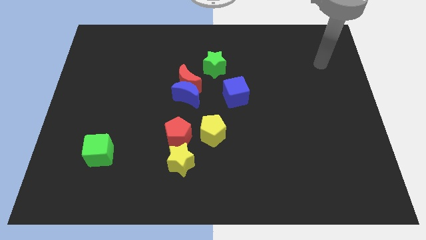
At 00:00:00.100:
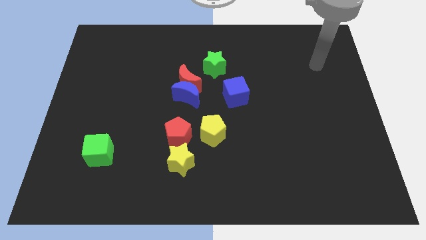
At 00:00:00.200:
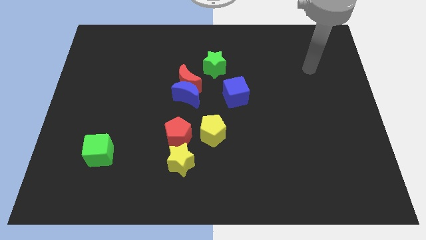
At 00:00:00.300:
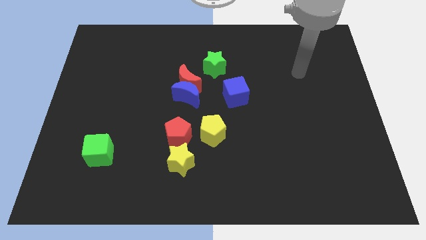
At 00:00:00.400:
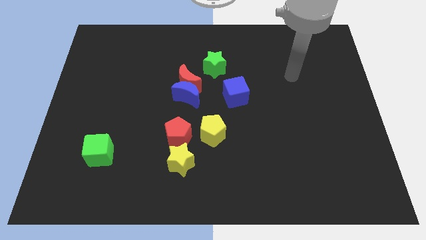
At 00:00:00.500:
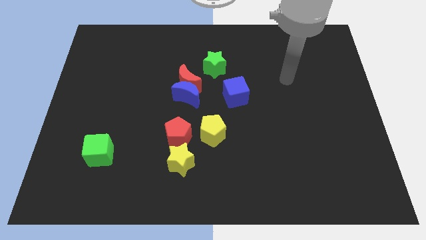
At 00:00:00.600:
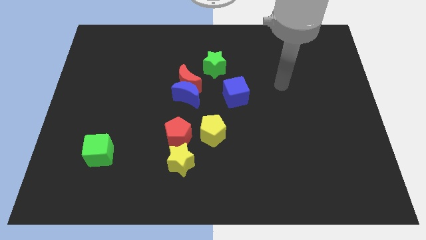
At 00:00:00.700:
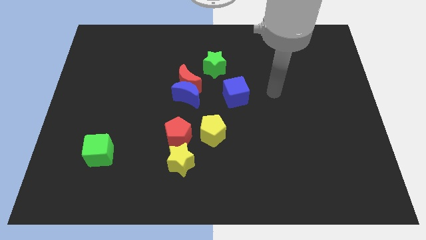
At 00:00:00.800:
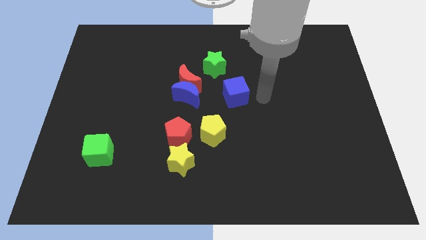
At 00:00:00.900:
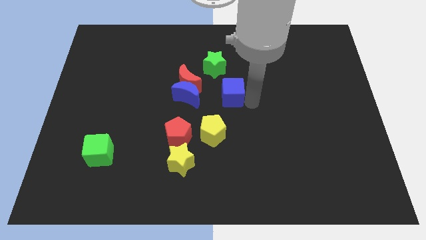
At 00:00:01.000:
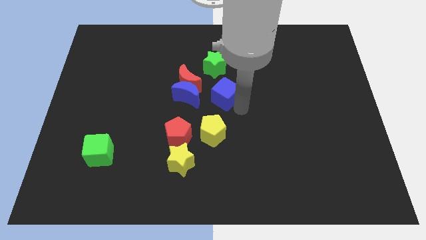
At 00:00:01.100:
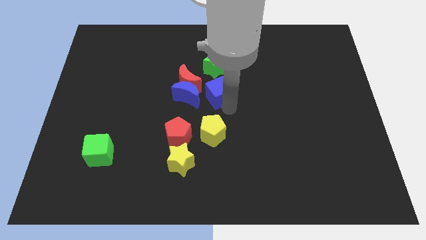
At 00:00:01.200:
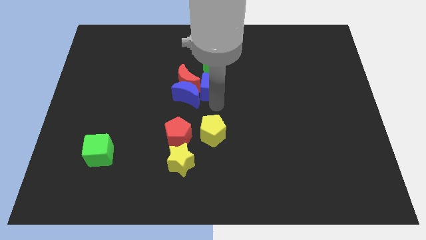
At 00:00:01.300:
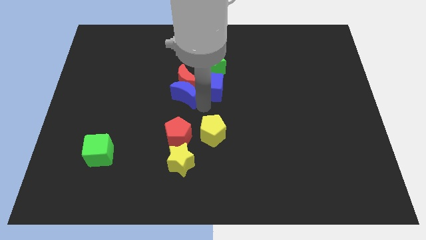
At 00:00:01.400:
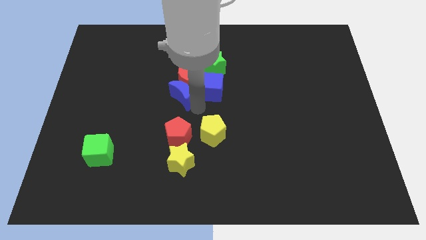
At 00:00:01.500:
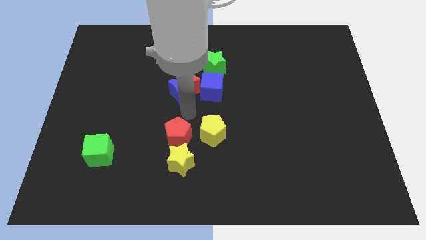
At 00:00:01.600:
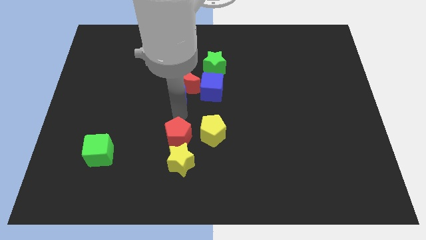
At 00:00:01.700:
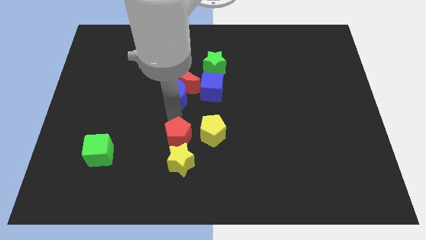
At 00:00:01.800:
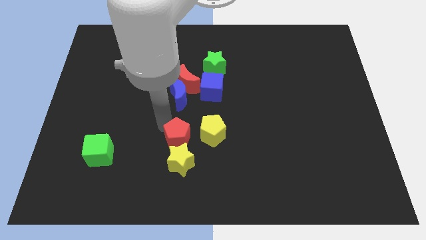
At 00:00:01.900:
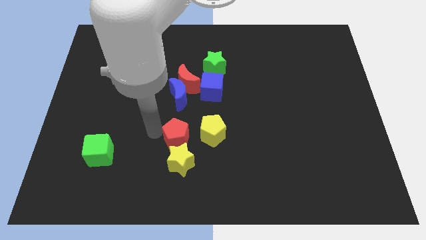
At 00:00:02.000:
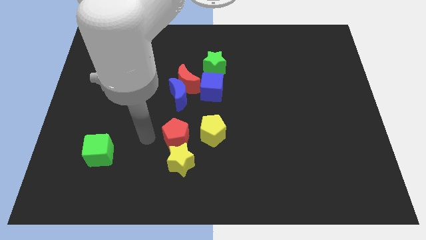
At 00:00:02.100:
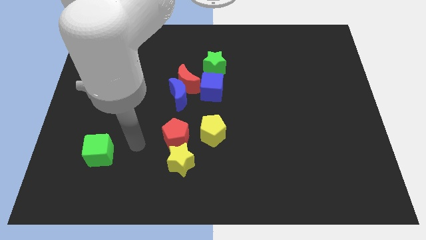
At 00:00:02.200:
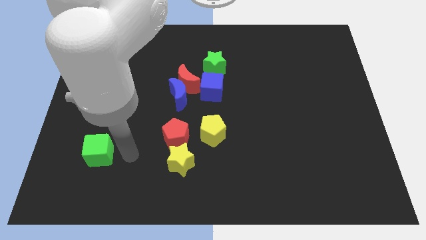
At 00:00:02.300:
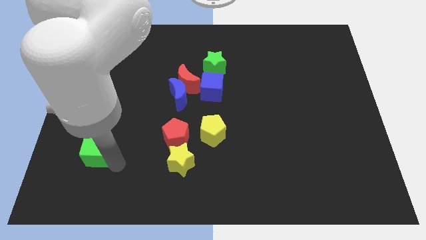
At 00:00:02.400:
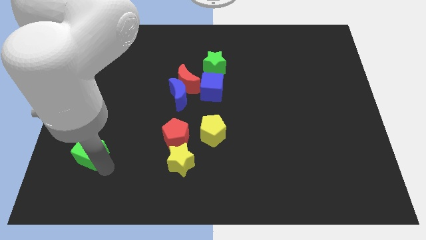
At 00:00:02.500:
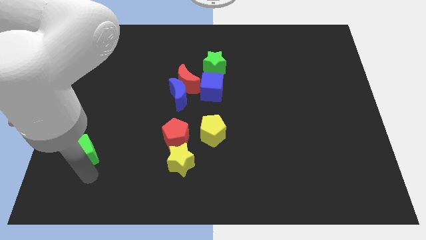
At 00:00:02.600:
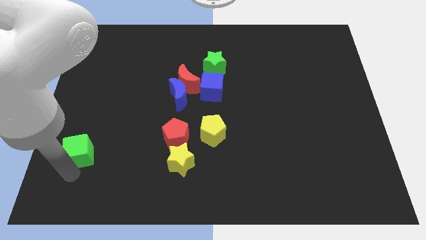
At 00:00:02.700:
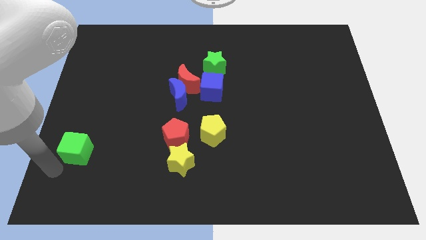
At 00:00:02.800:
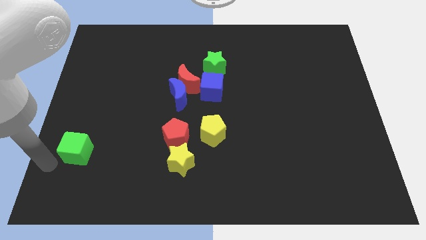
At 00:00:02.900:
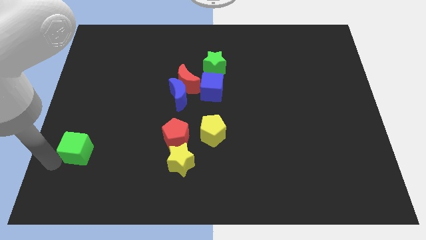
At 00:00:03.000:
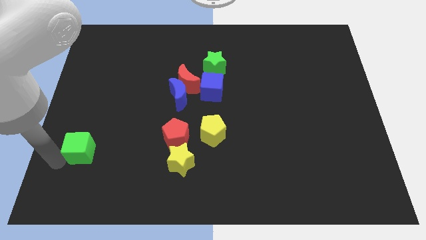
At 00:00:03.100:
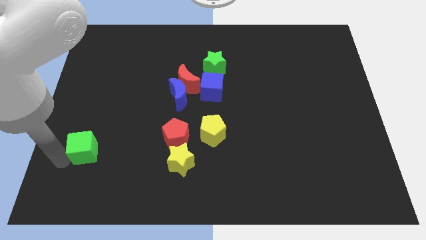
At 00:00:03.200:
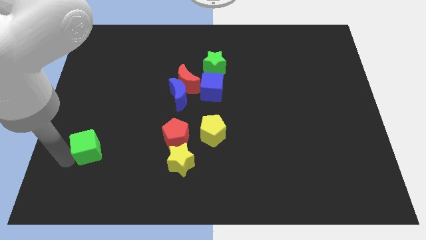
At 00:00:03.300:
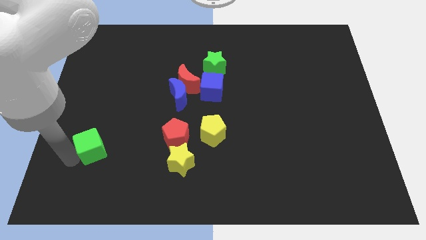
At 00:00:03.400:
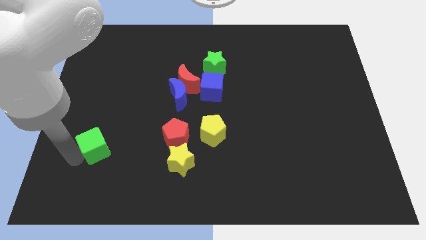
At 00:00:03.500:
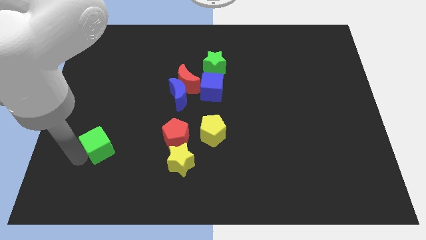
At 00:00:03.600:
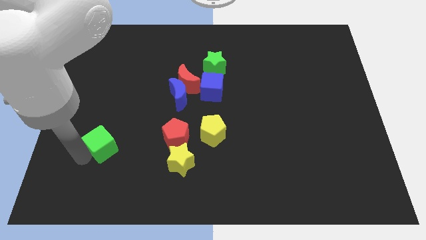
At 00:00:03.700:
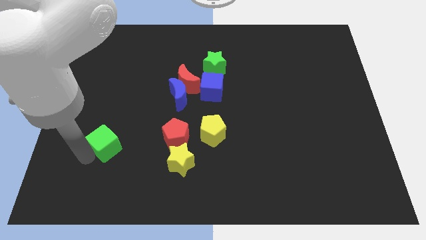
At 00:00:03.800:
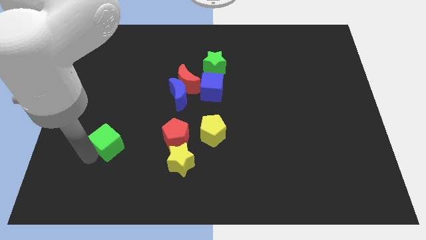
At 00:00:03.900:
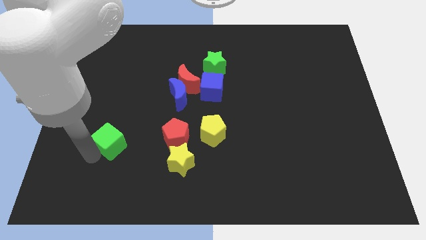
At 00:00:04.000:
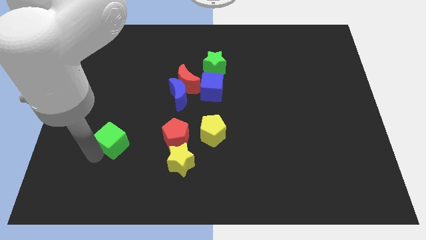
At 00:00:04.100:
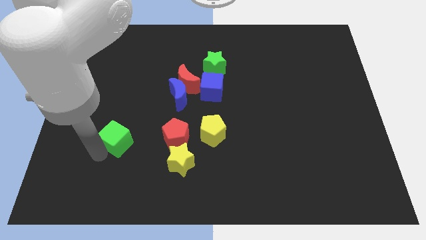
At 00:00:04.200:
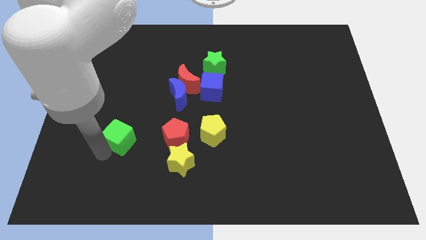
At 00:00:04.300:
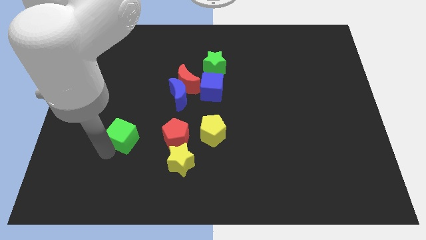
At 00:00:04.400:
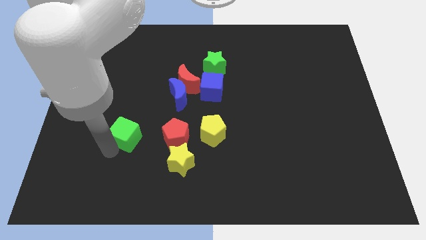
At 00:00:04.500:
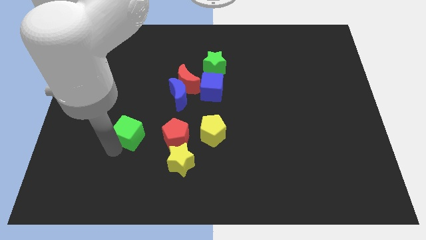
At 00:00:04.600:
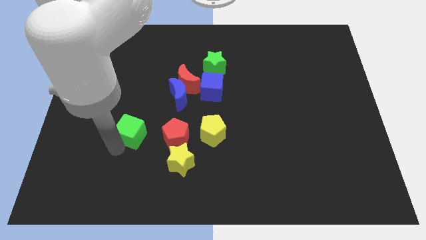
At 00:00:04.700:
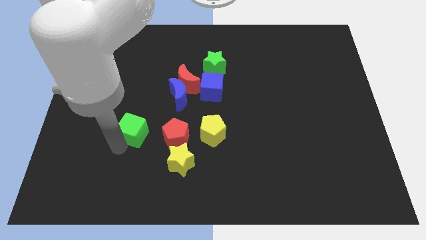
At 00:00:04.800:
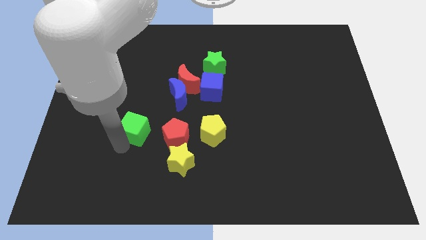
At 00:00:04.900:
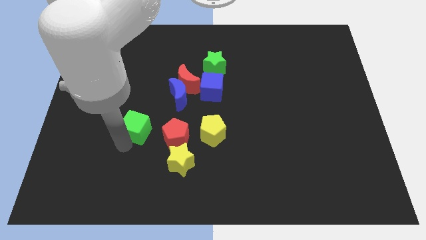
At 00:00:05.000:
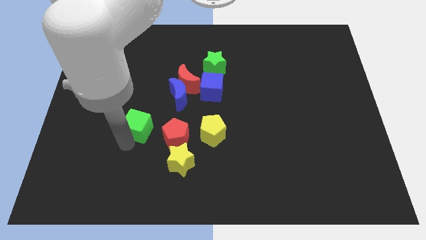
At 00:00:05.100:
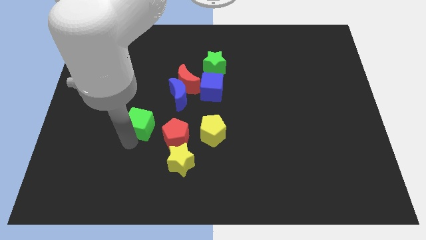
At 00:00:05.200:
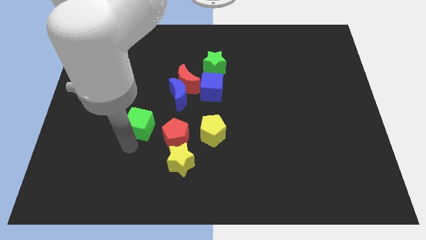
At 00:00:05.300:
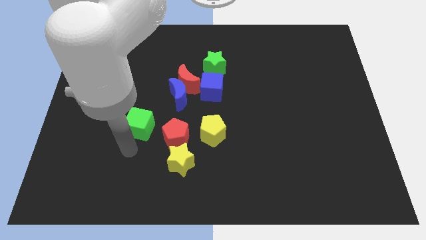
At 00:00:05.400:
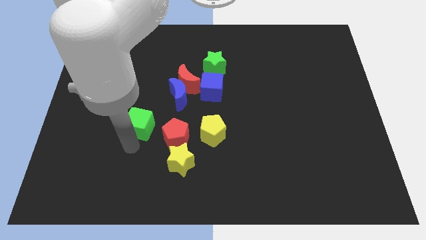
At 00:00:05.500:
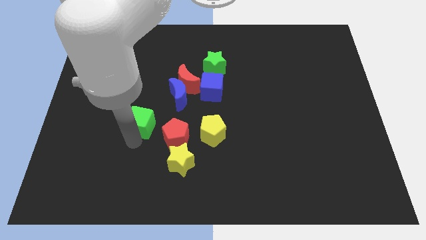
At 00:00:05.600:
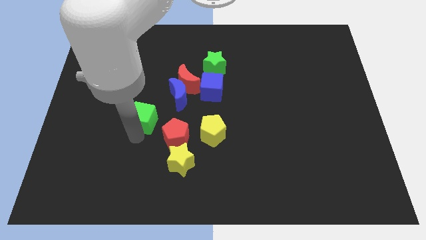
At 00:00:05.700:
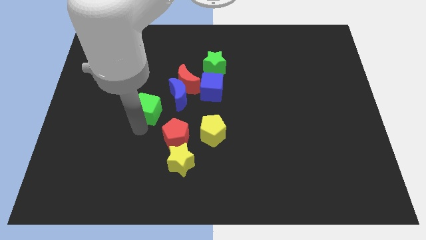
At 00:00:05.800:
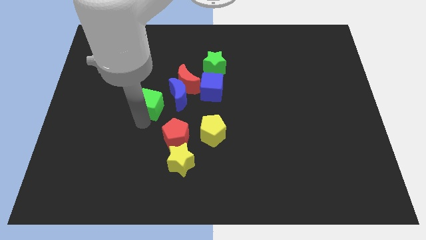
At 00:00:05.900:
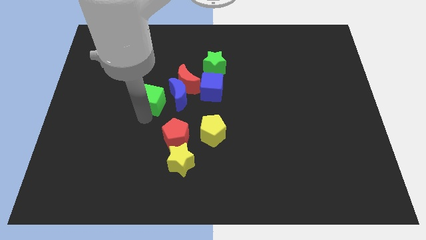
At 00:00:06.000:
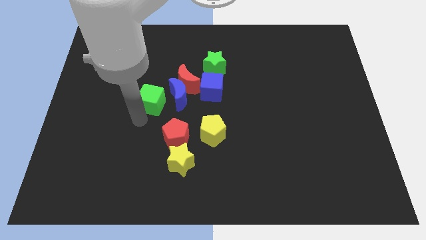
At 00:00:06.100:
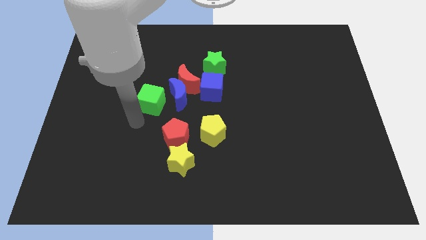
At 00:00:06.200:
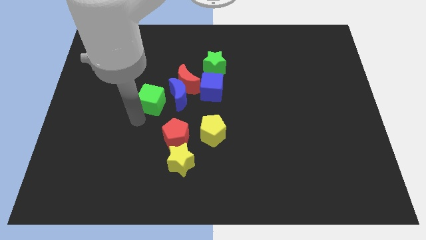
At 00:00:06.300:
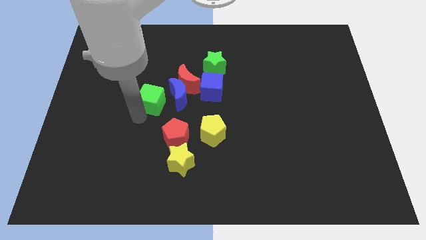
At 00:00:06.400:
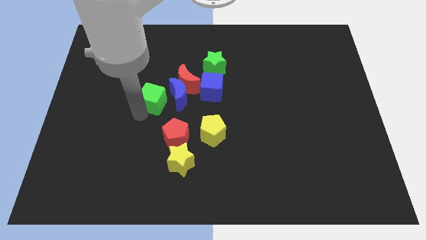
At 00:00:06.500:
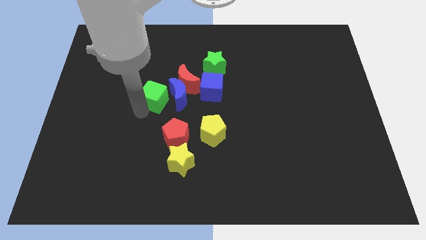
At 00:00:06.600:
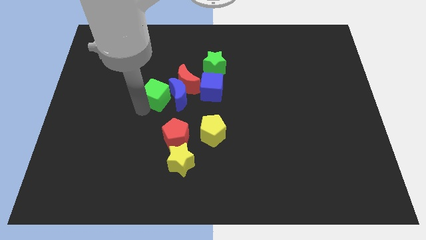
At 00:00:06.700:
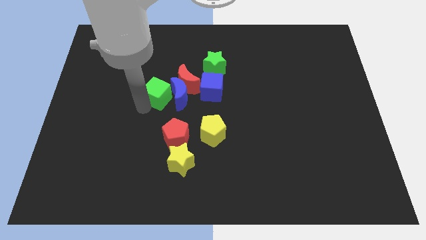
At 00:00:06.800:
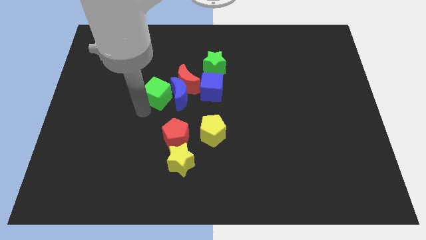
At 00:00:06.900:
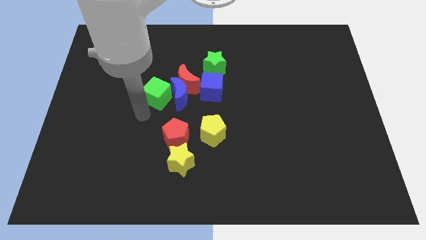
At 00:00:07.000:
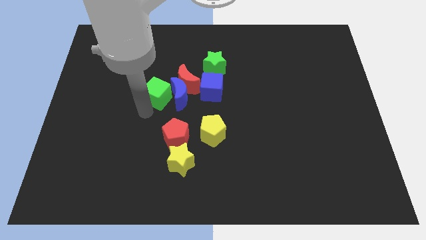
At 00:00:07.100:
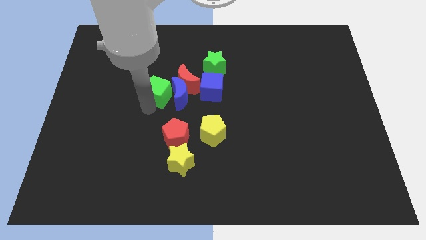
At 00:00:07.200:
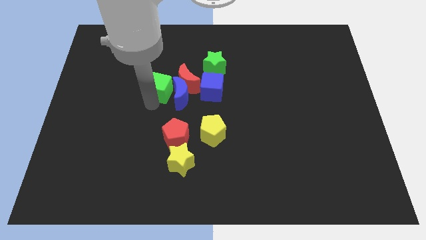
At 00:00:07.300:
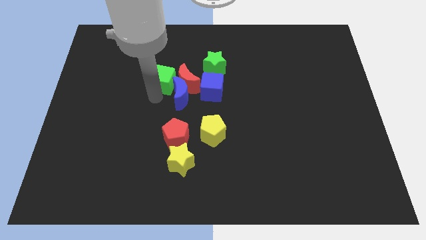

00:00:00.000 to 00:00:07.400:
move the green cube to the top side of the blue moon
